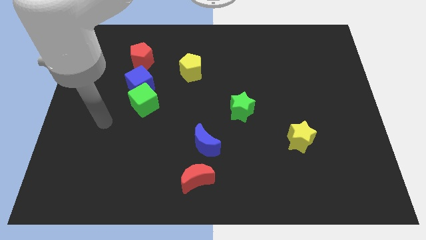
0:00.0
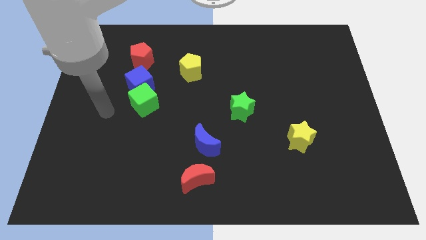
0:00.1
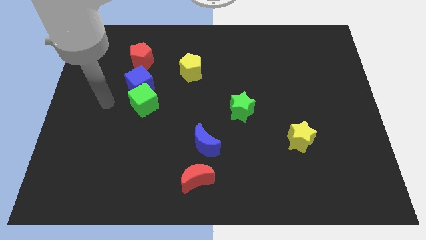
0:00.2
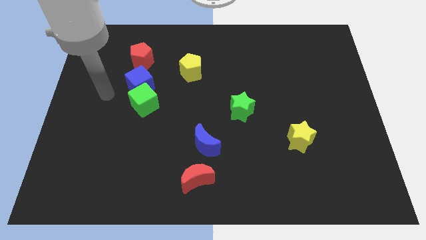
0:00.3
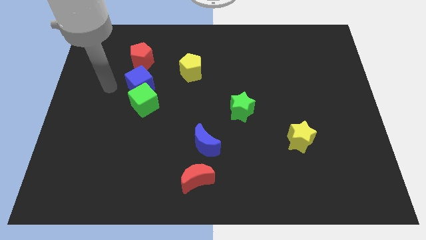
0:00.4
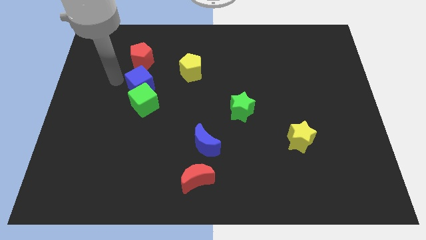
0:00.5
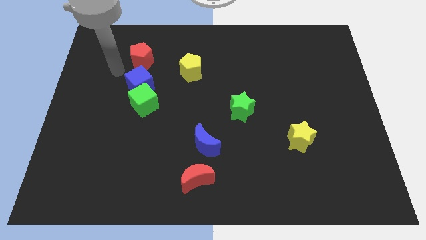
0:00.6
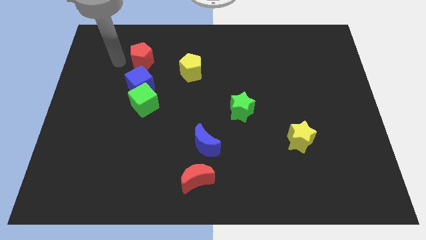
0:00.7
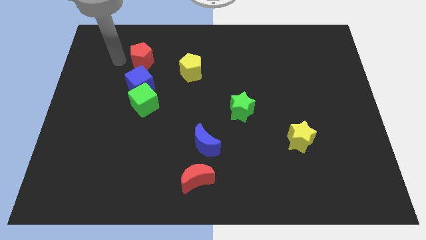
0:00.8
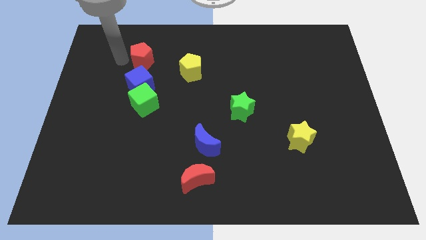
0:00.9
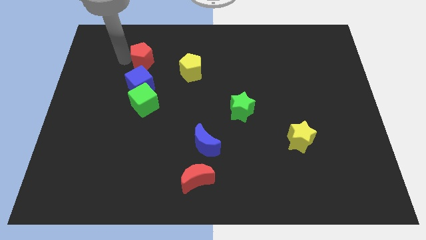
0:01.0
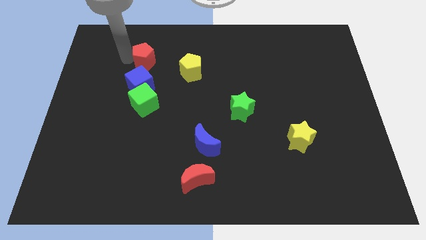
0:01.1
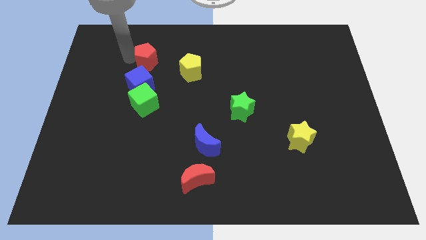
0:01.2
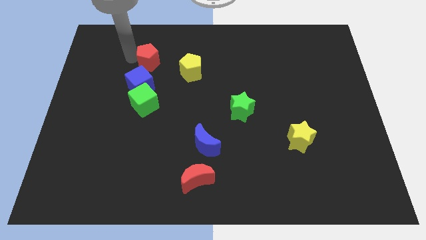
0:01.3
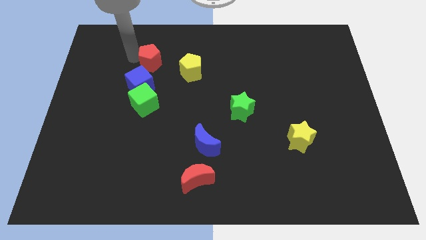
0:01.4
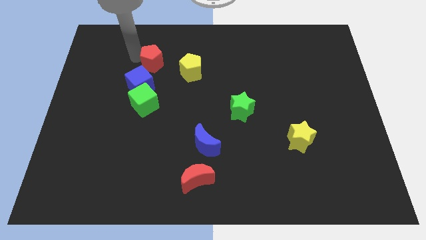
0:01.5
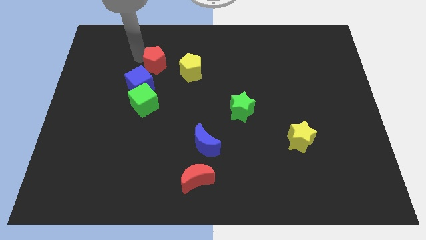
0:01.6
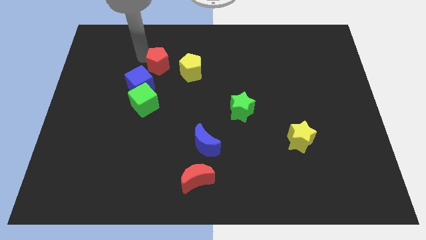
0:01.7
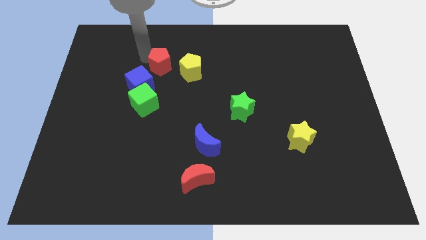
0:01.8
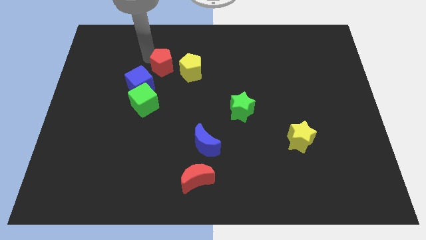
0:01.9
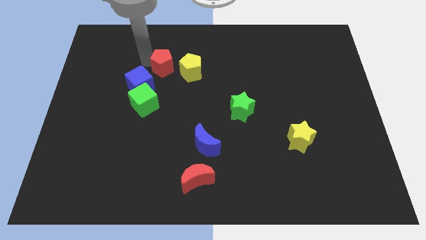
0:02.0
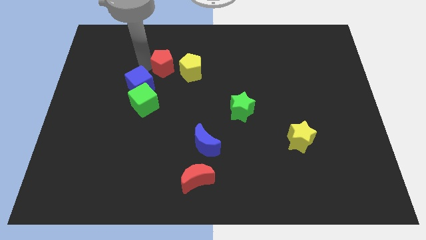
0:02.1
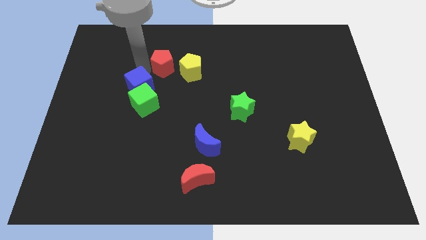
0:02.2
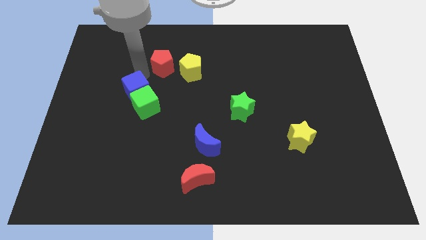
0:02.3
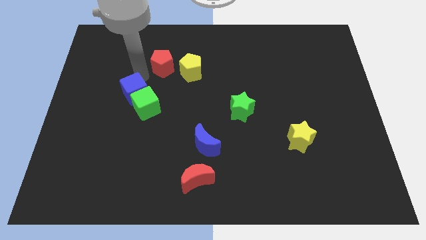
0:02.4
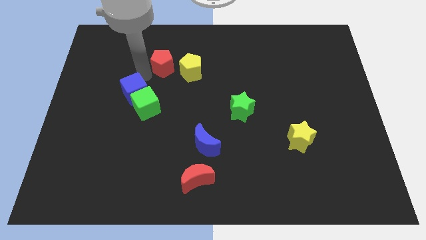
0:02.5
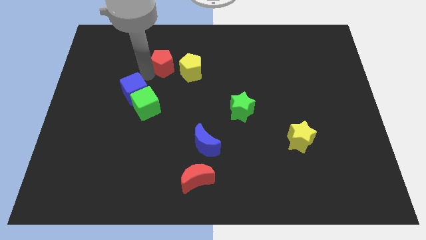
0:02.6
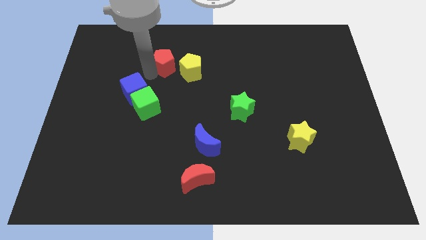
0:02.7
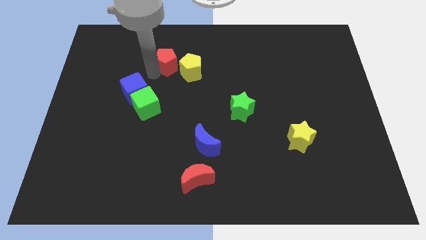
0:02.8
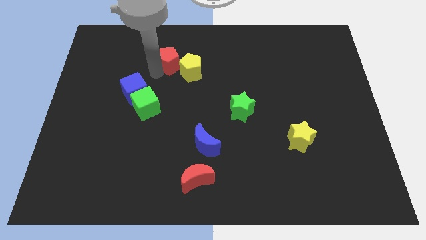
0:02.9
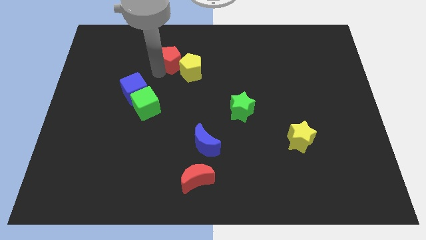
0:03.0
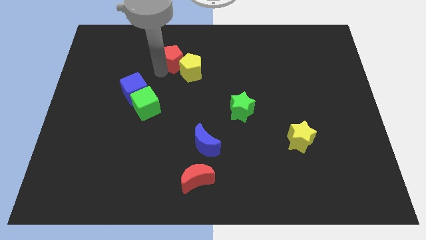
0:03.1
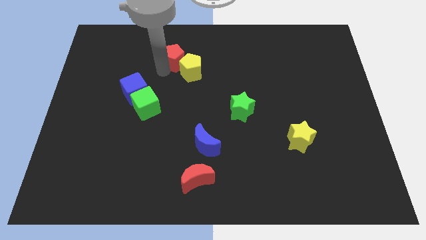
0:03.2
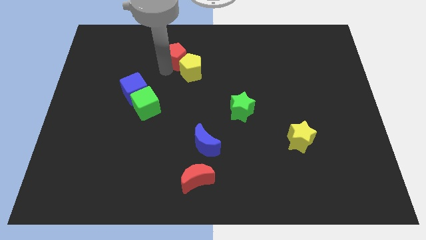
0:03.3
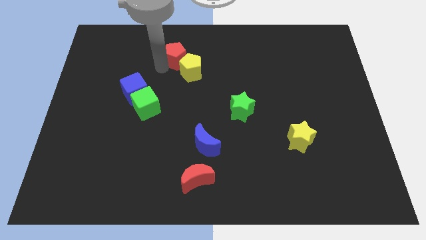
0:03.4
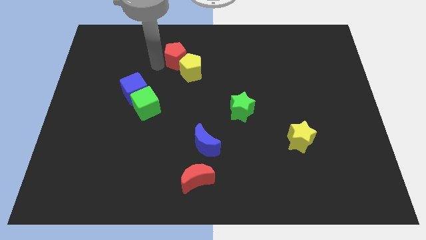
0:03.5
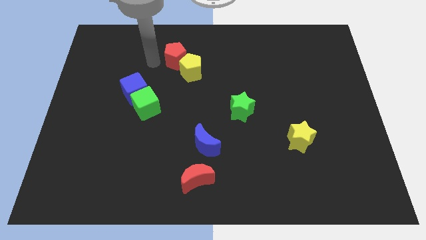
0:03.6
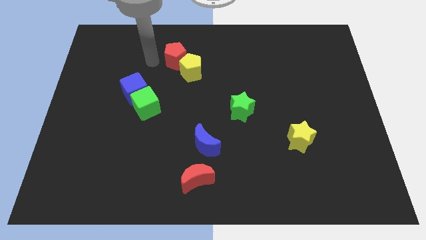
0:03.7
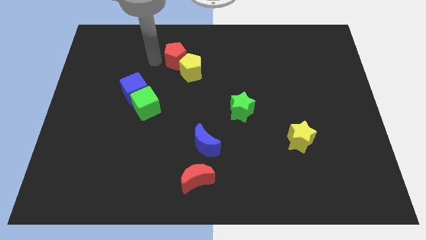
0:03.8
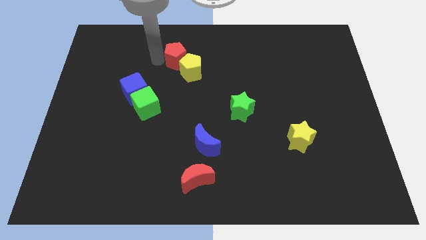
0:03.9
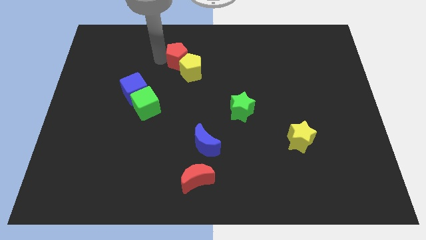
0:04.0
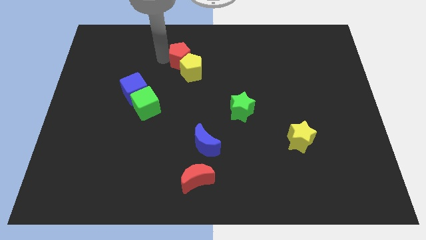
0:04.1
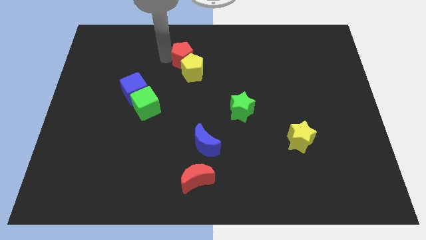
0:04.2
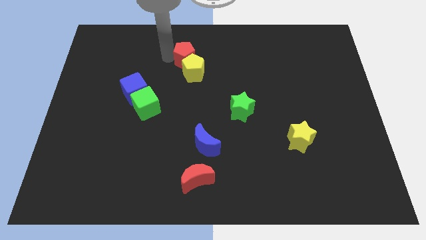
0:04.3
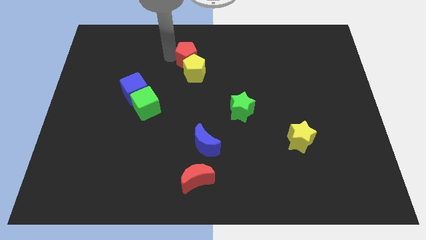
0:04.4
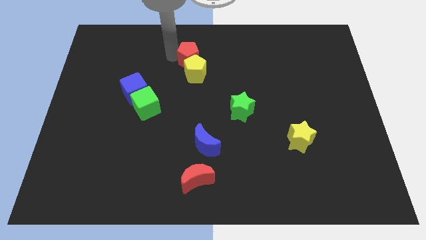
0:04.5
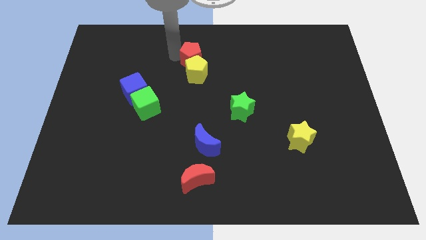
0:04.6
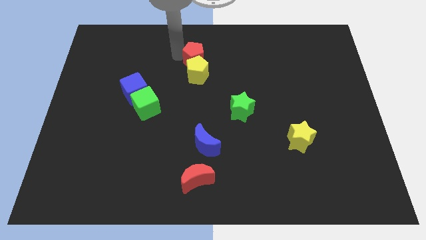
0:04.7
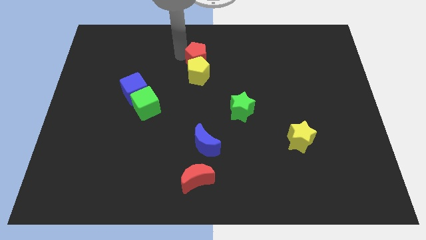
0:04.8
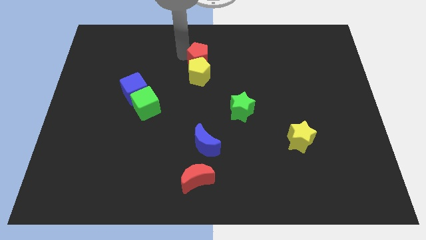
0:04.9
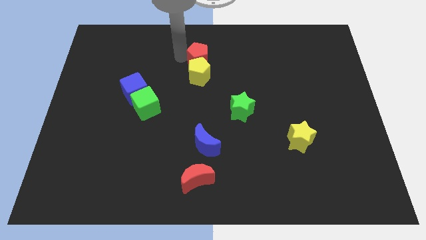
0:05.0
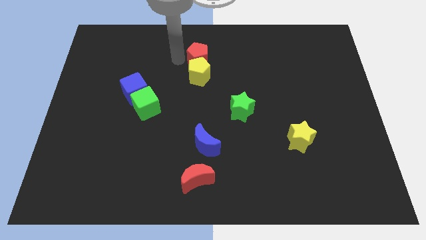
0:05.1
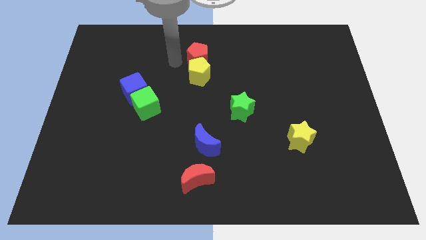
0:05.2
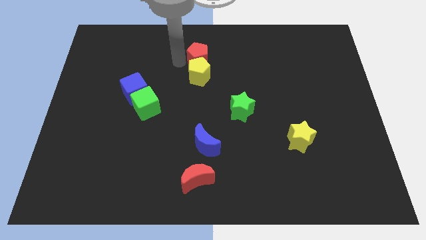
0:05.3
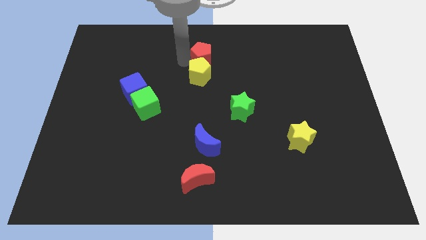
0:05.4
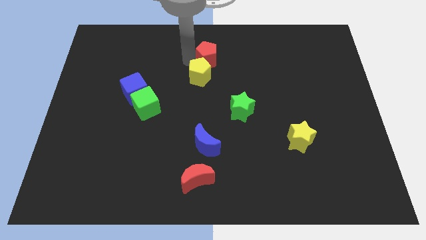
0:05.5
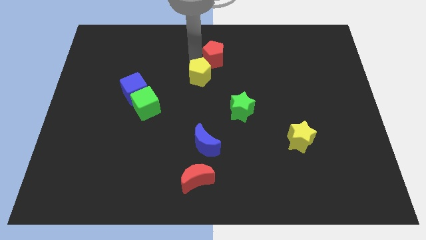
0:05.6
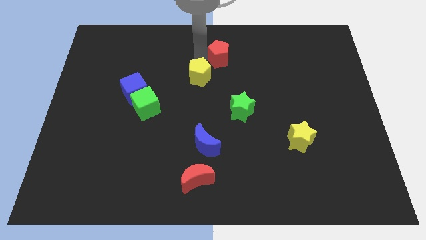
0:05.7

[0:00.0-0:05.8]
slide the red pentagon right

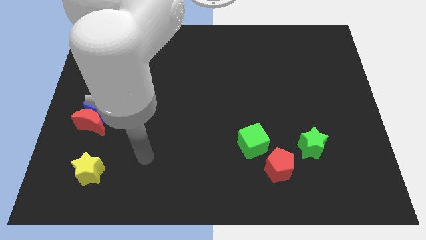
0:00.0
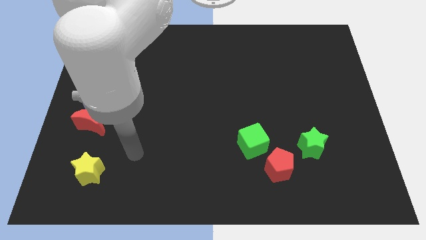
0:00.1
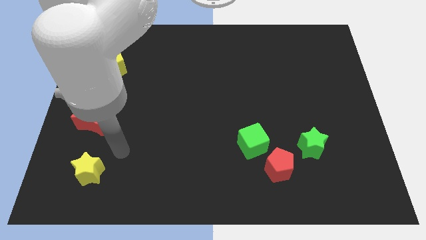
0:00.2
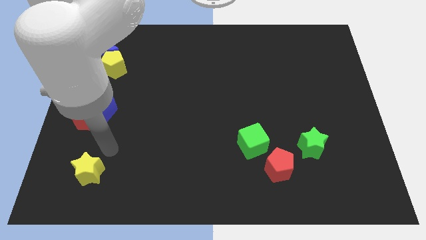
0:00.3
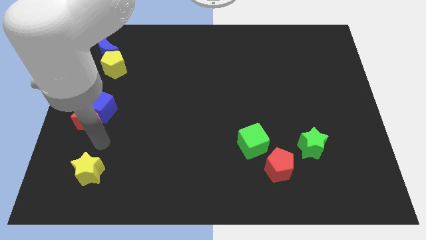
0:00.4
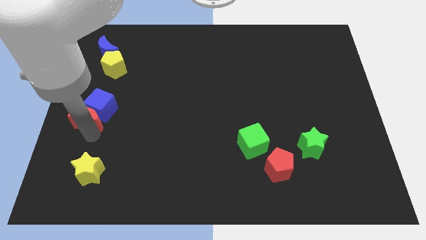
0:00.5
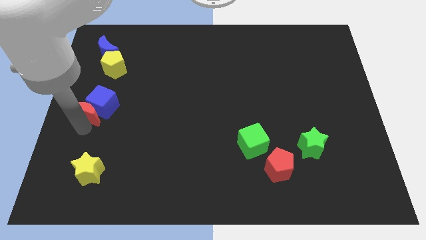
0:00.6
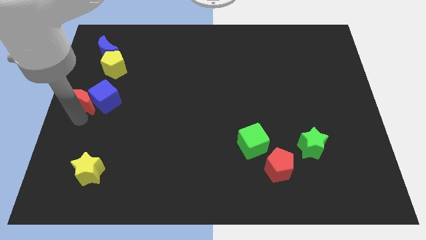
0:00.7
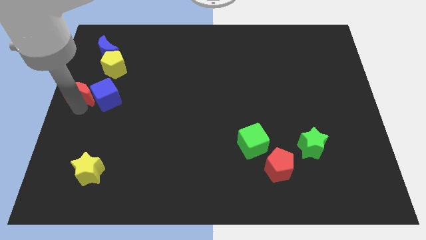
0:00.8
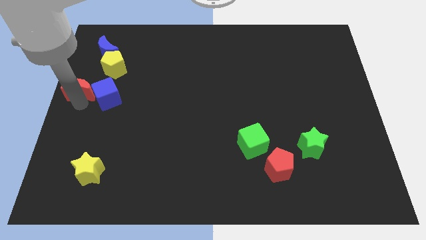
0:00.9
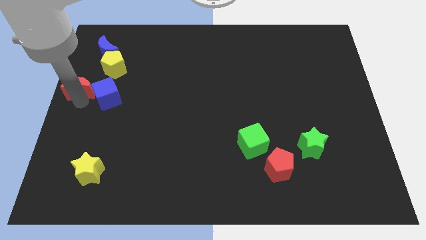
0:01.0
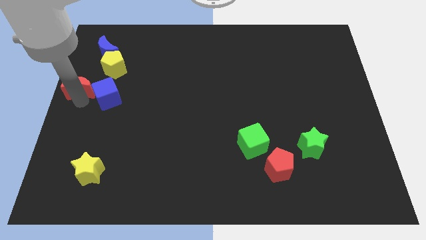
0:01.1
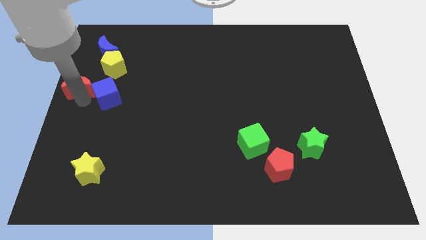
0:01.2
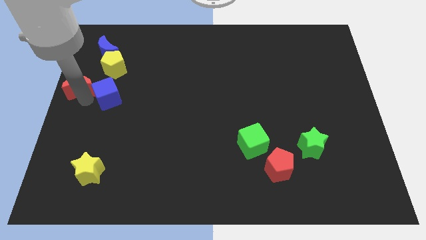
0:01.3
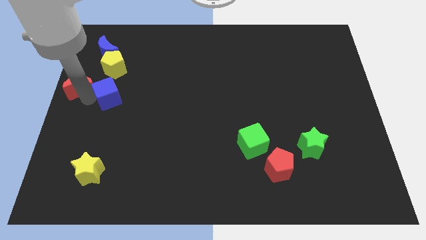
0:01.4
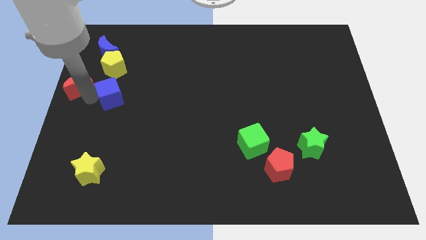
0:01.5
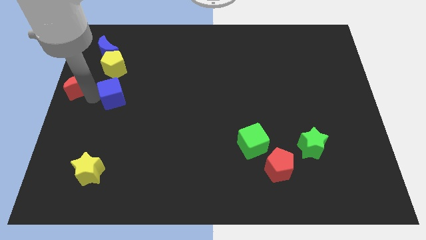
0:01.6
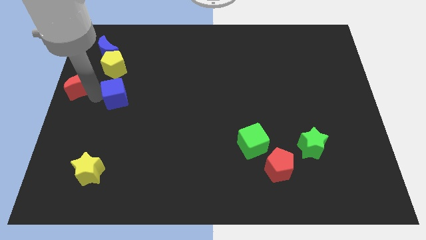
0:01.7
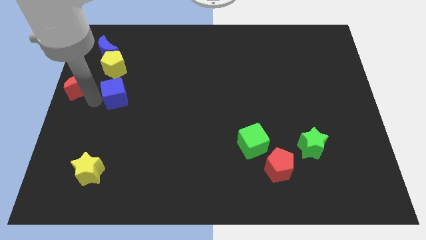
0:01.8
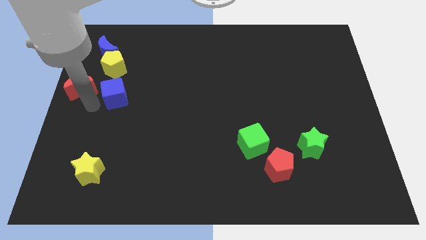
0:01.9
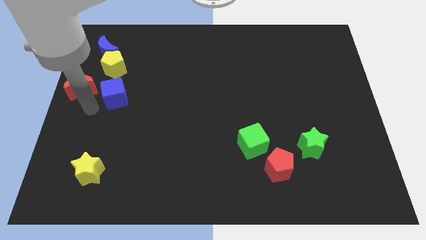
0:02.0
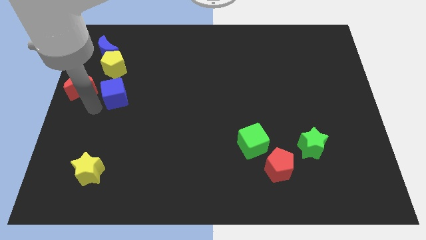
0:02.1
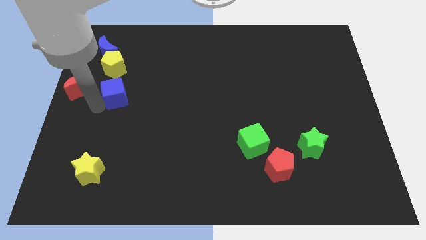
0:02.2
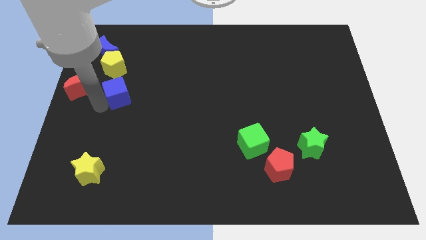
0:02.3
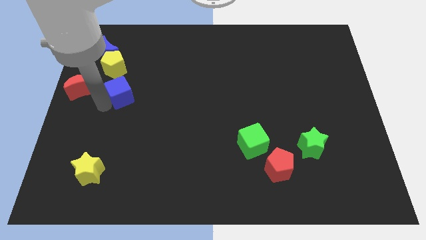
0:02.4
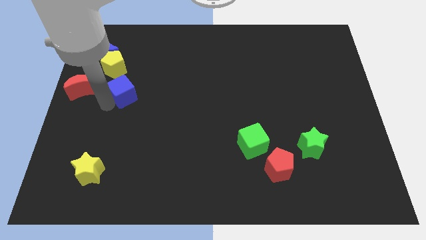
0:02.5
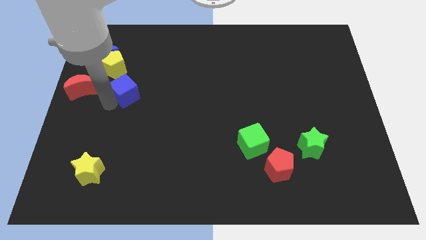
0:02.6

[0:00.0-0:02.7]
move the blue cube upwards and then to the right a bit
